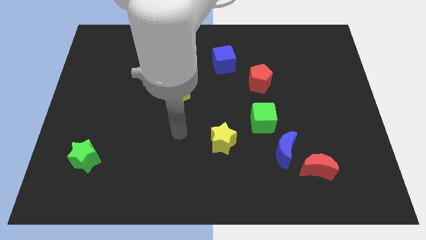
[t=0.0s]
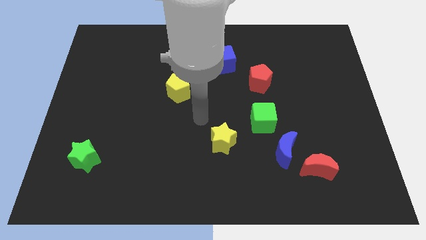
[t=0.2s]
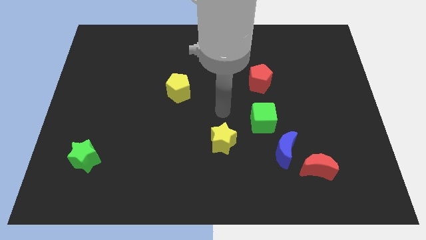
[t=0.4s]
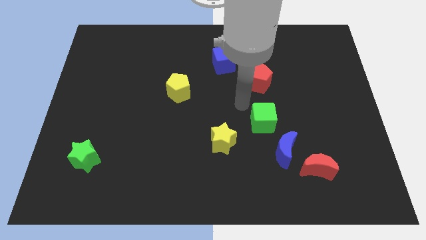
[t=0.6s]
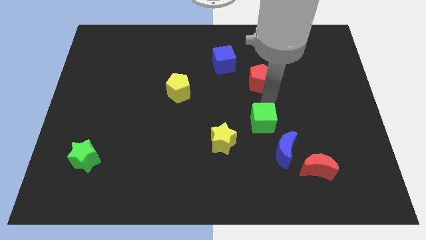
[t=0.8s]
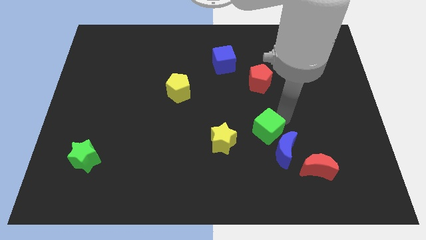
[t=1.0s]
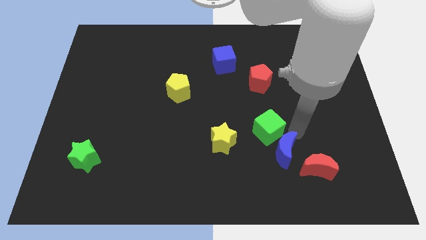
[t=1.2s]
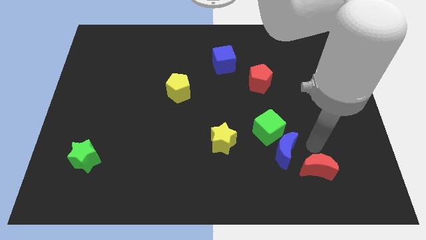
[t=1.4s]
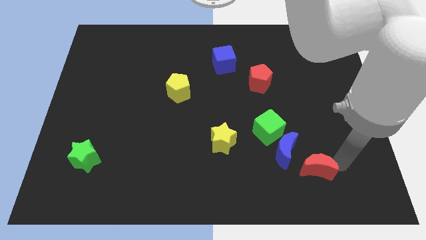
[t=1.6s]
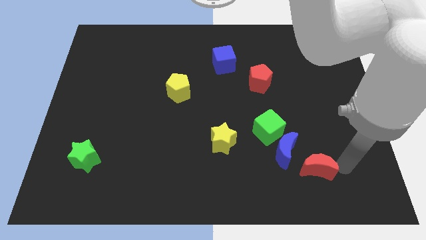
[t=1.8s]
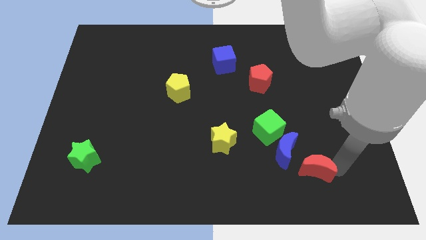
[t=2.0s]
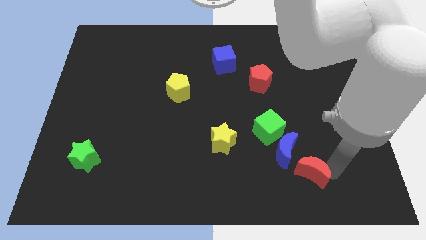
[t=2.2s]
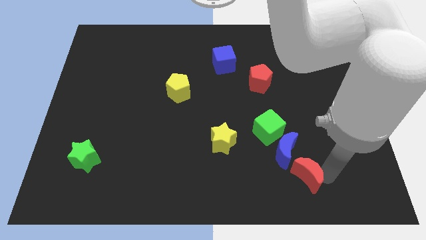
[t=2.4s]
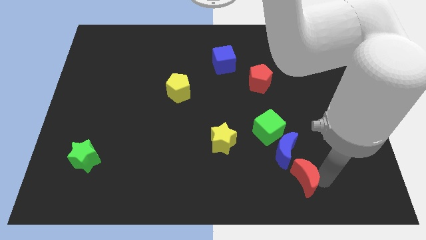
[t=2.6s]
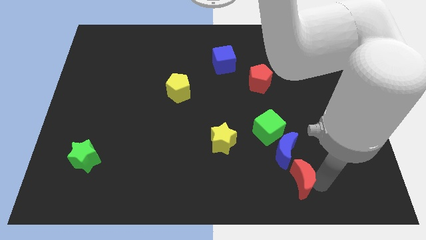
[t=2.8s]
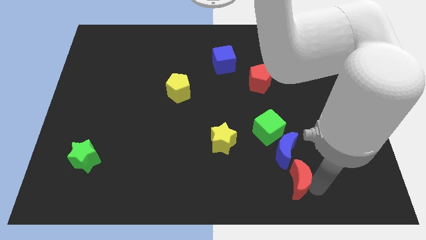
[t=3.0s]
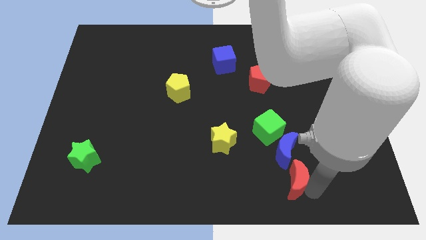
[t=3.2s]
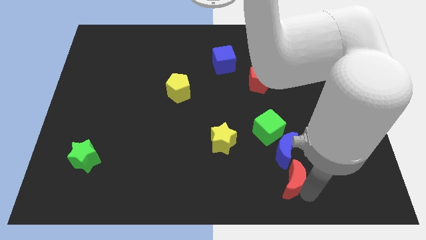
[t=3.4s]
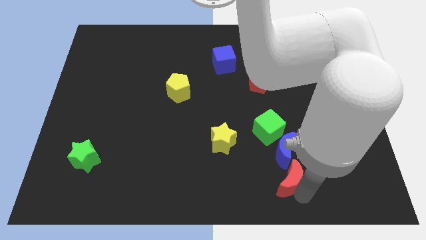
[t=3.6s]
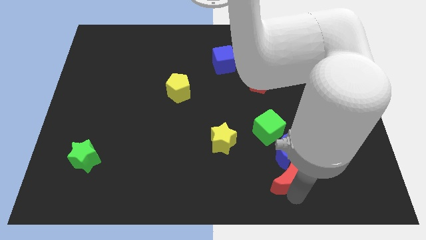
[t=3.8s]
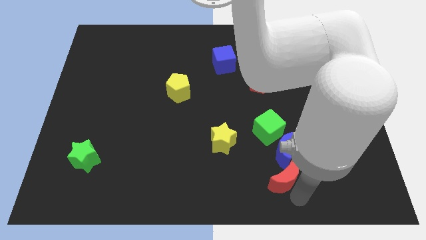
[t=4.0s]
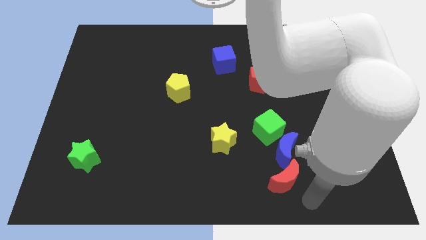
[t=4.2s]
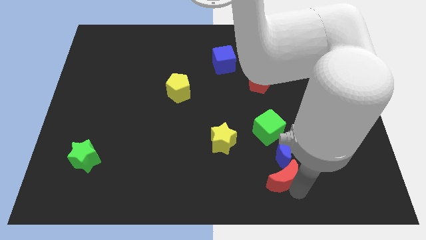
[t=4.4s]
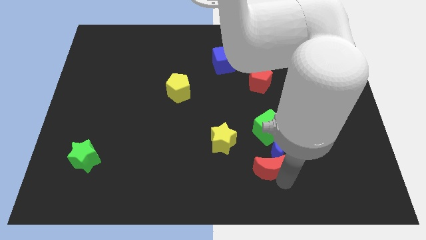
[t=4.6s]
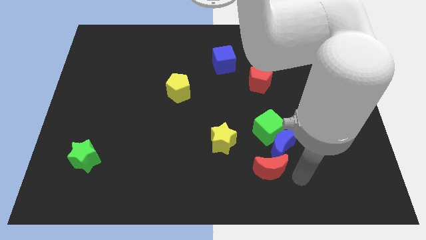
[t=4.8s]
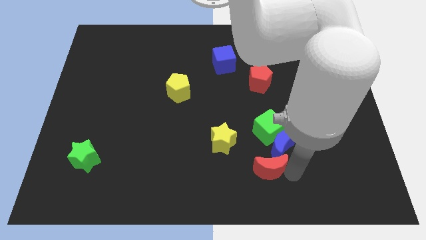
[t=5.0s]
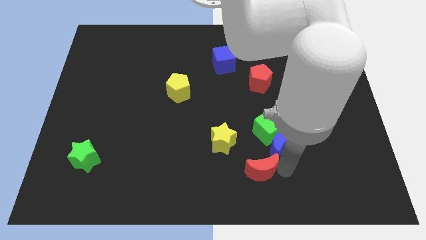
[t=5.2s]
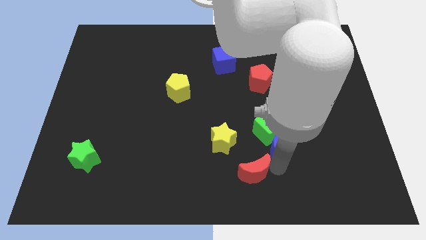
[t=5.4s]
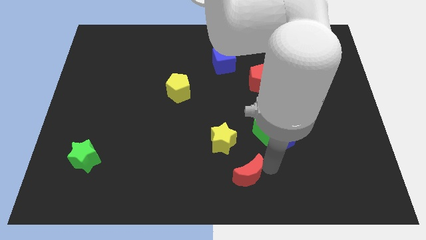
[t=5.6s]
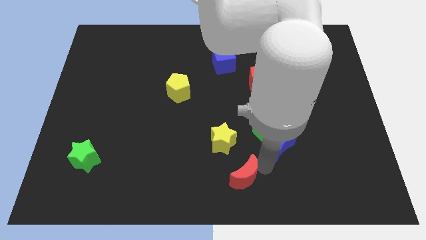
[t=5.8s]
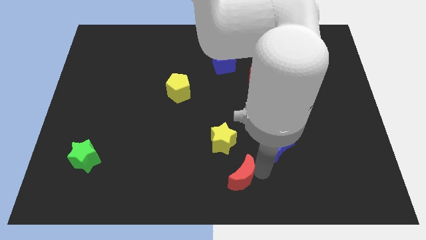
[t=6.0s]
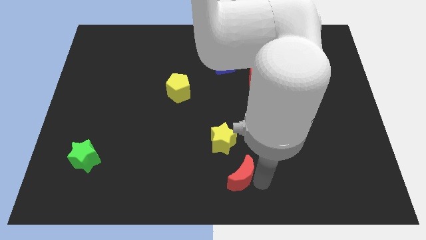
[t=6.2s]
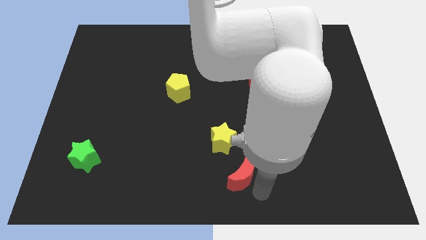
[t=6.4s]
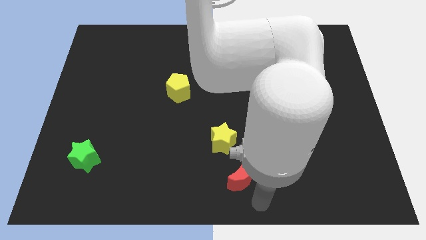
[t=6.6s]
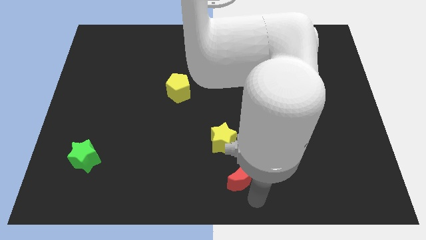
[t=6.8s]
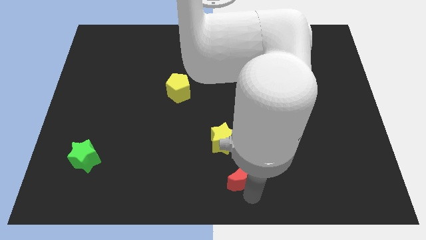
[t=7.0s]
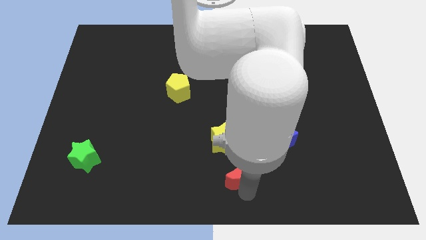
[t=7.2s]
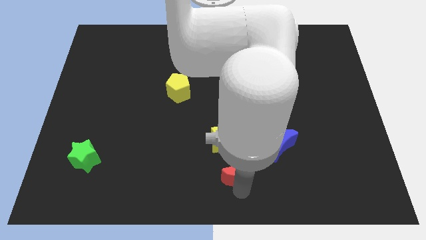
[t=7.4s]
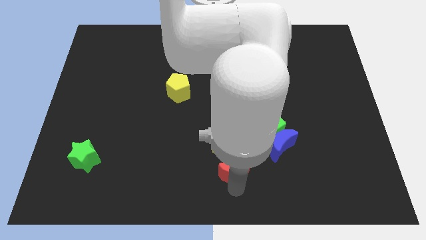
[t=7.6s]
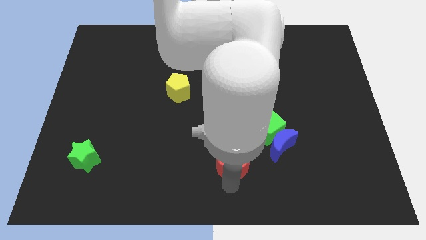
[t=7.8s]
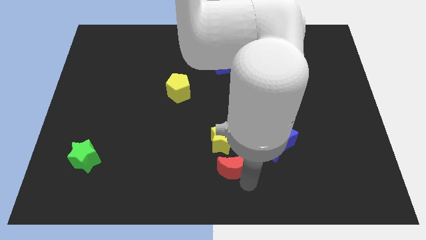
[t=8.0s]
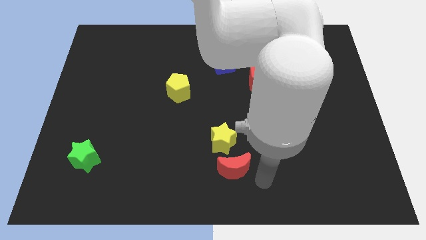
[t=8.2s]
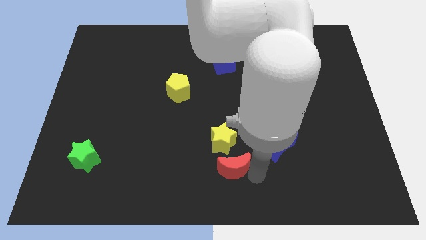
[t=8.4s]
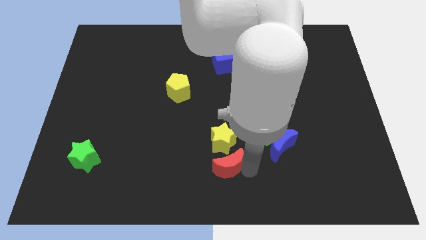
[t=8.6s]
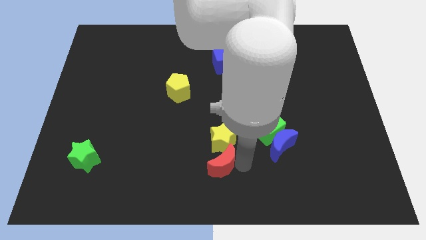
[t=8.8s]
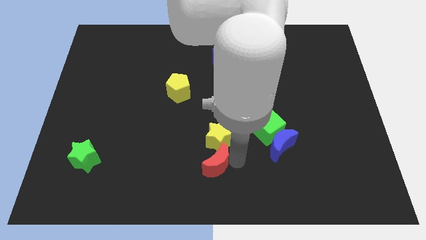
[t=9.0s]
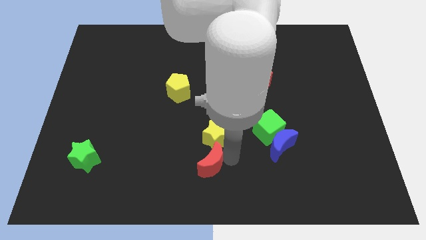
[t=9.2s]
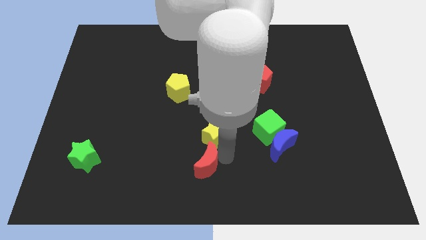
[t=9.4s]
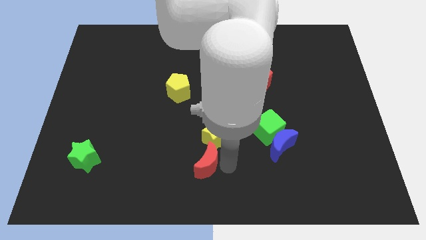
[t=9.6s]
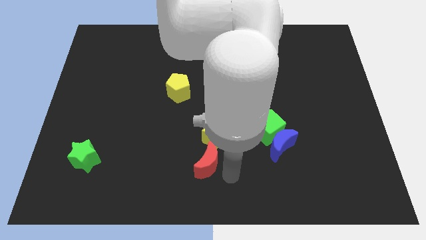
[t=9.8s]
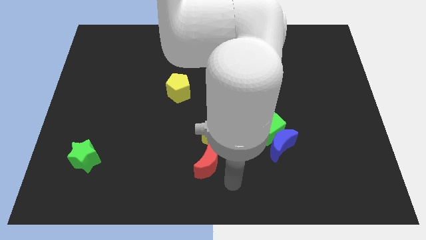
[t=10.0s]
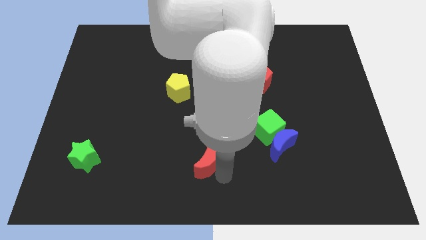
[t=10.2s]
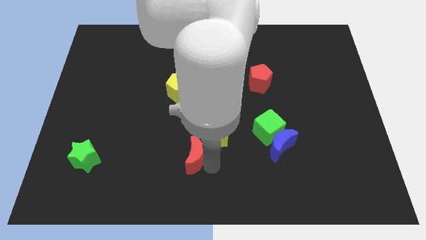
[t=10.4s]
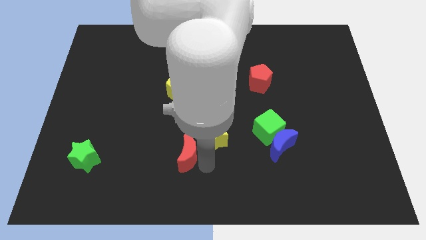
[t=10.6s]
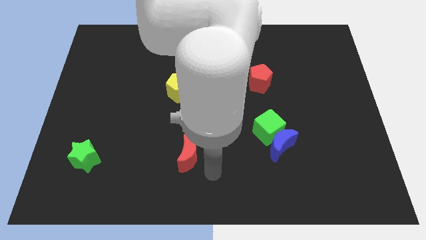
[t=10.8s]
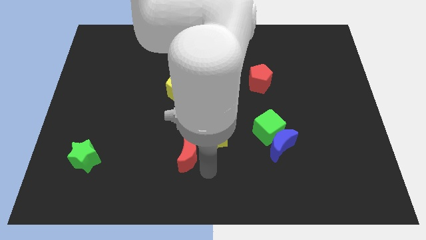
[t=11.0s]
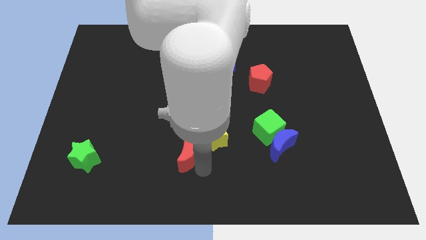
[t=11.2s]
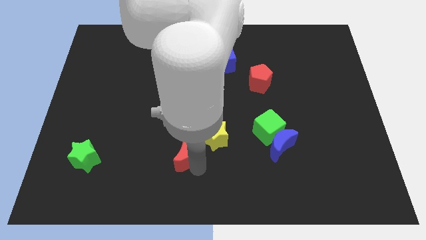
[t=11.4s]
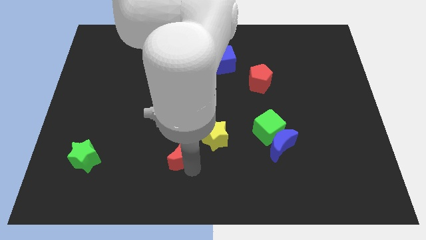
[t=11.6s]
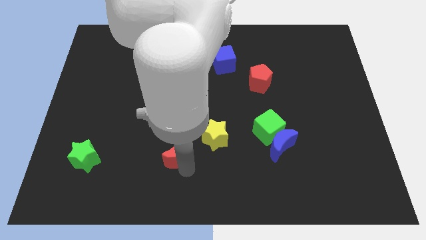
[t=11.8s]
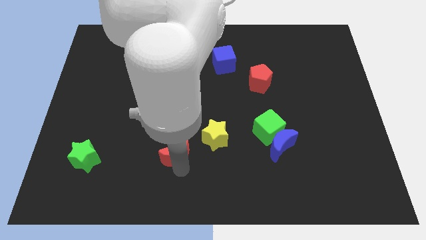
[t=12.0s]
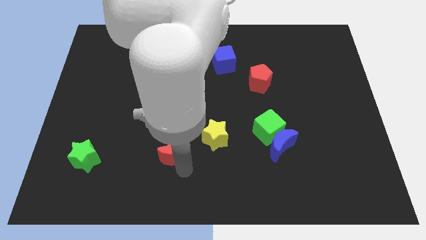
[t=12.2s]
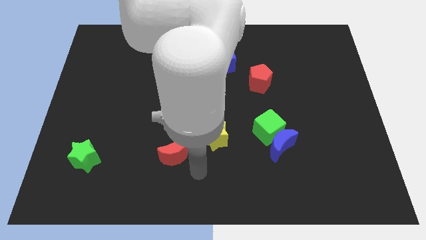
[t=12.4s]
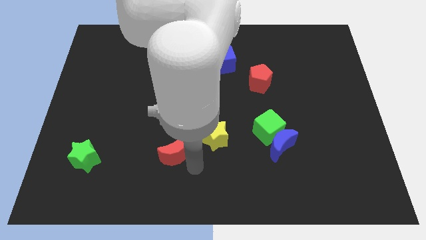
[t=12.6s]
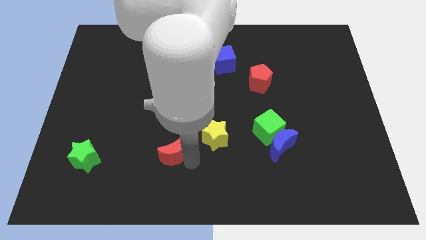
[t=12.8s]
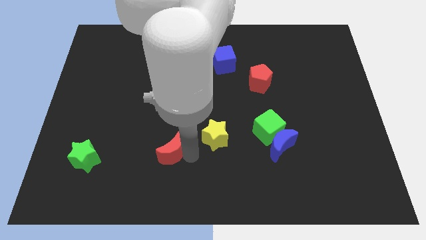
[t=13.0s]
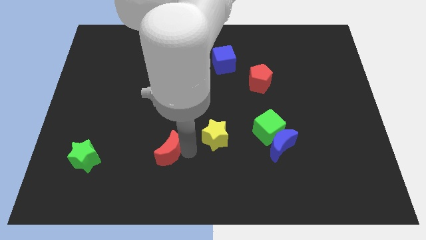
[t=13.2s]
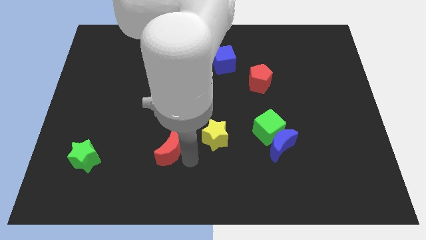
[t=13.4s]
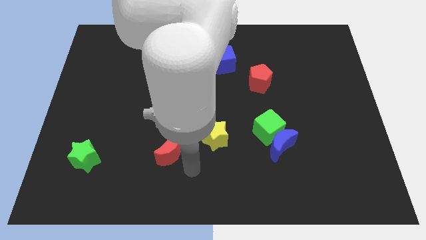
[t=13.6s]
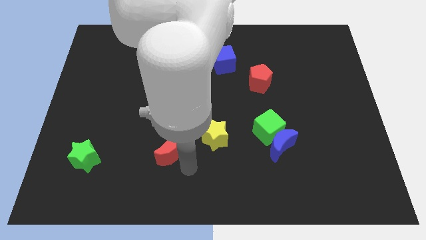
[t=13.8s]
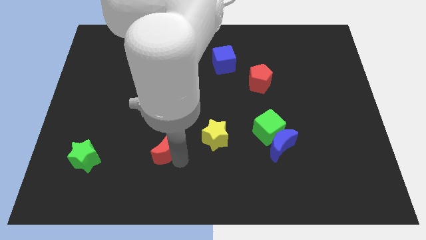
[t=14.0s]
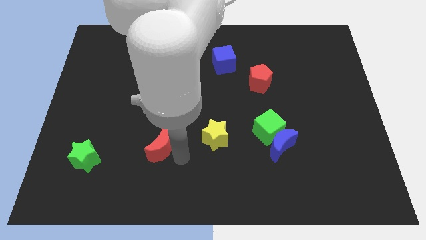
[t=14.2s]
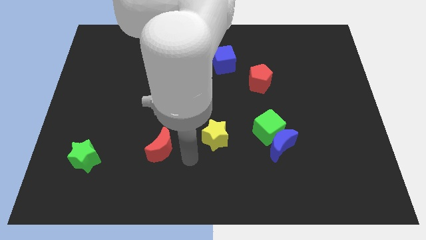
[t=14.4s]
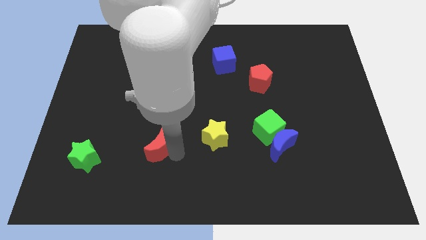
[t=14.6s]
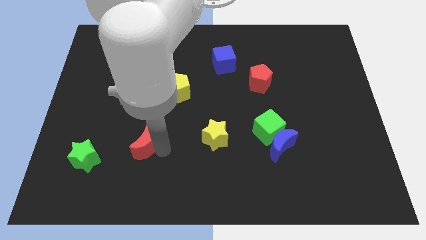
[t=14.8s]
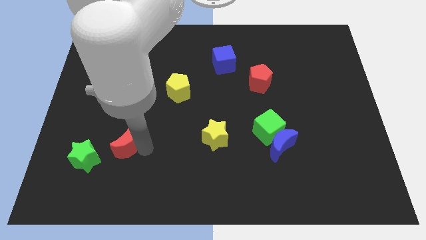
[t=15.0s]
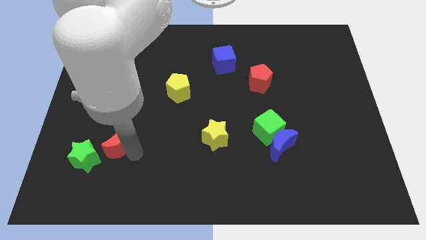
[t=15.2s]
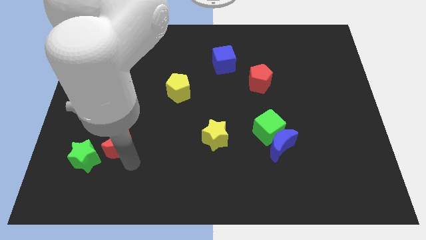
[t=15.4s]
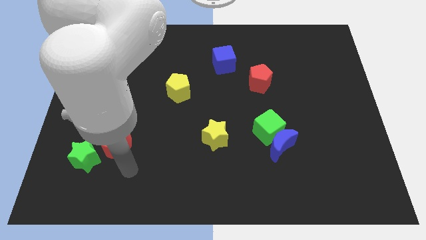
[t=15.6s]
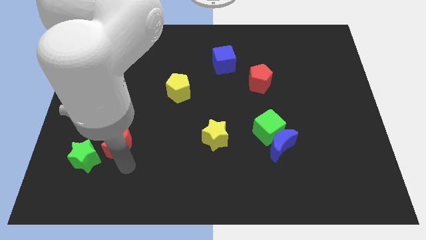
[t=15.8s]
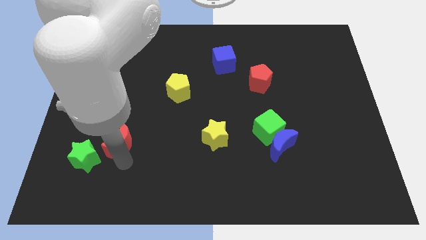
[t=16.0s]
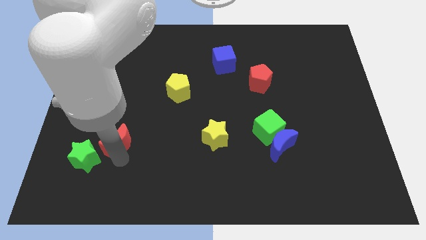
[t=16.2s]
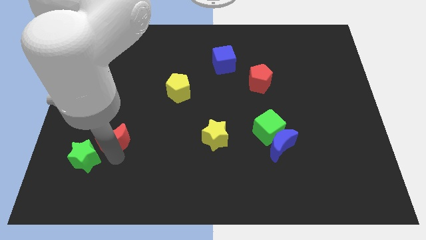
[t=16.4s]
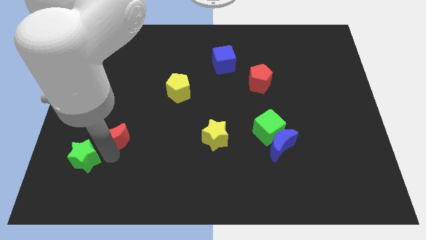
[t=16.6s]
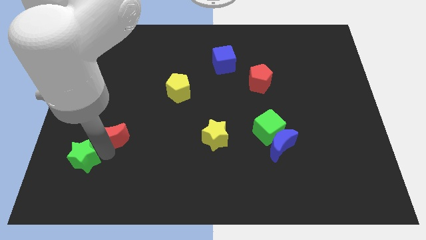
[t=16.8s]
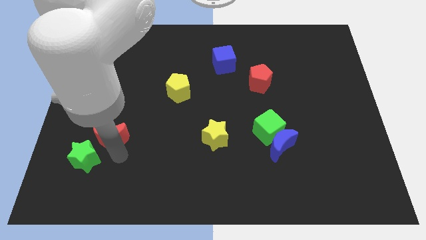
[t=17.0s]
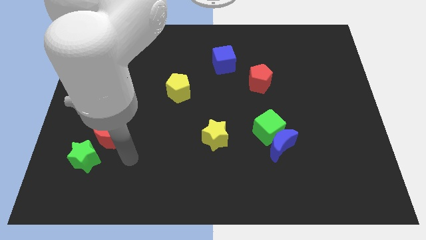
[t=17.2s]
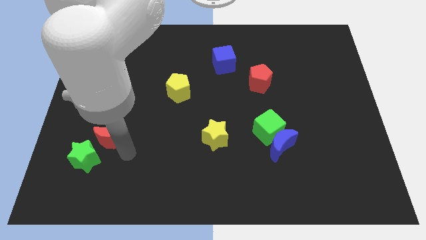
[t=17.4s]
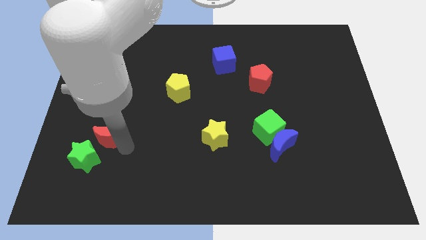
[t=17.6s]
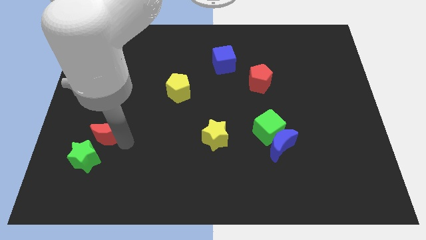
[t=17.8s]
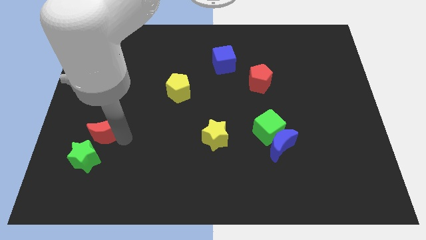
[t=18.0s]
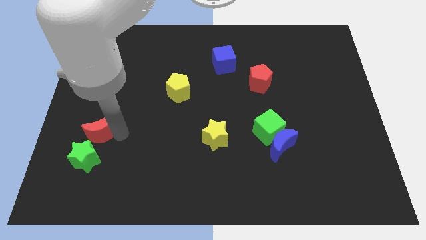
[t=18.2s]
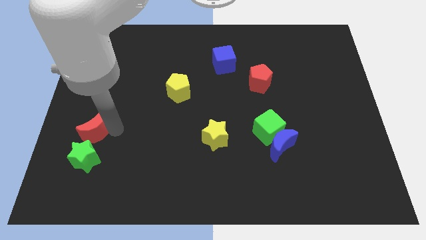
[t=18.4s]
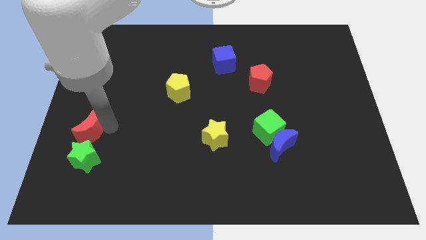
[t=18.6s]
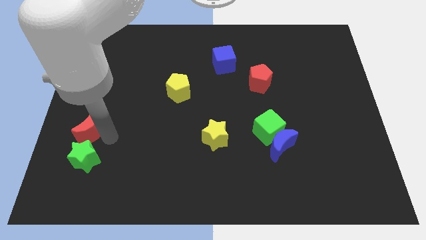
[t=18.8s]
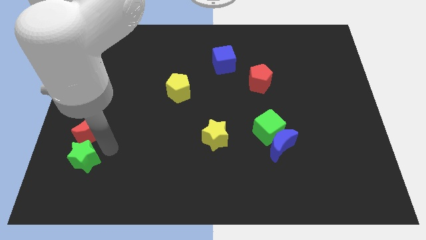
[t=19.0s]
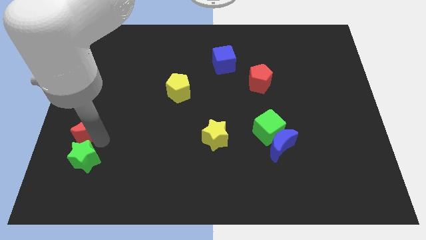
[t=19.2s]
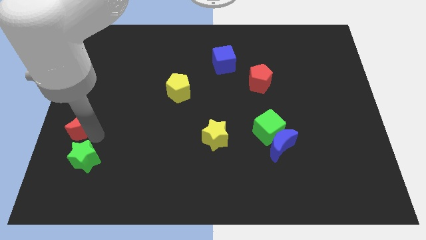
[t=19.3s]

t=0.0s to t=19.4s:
move the red moon to the left side
